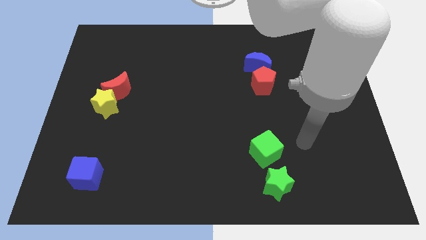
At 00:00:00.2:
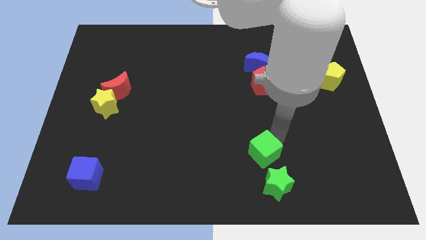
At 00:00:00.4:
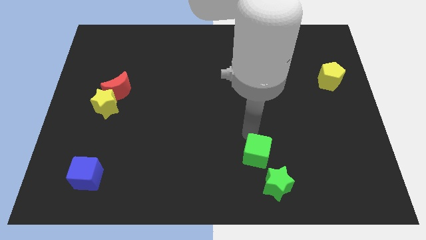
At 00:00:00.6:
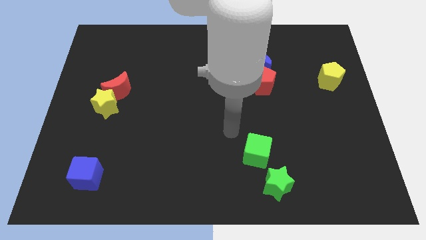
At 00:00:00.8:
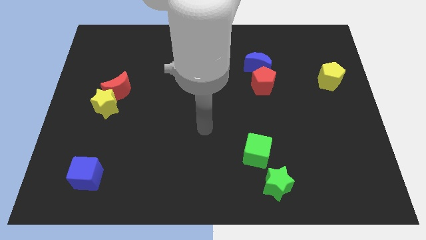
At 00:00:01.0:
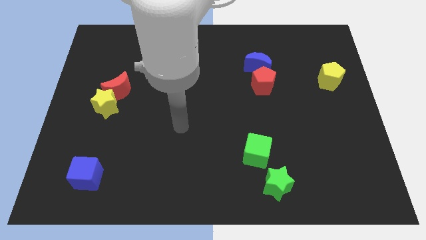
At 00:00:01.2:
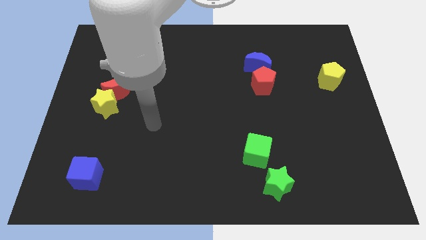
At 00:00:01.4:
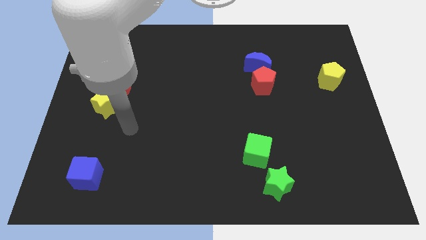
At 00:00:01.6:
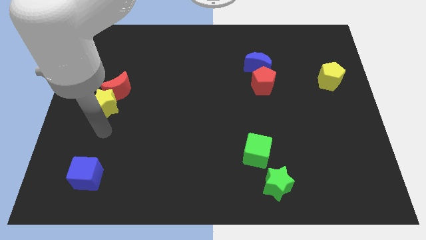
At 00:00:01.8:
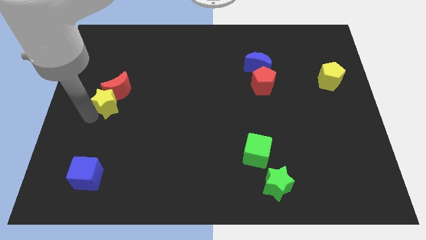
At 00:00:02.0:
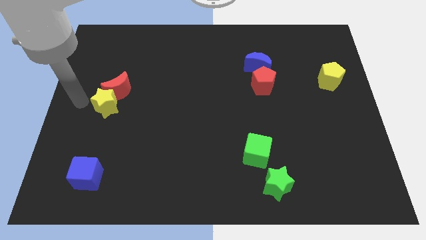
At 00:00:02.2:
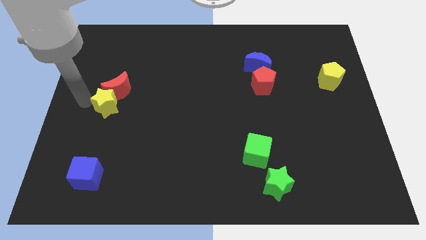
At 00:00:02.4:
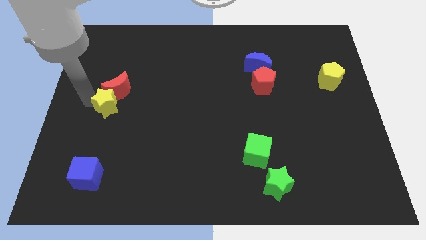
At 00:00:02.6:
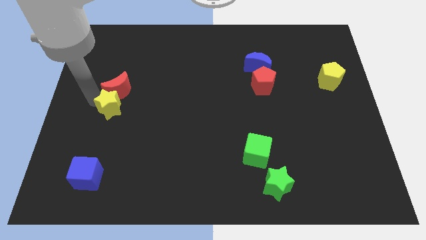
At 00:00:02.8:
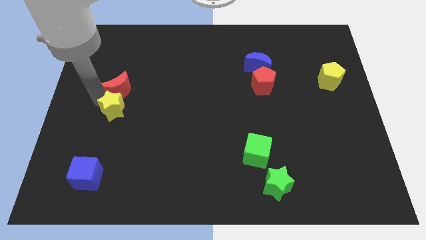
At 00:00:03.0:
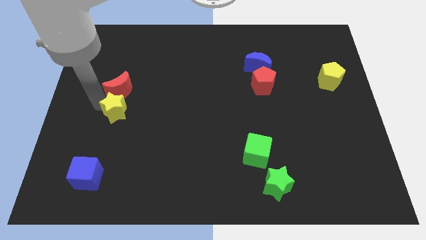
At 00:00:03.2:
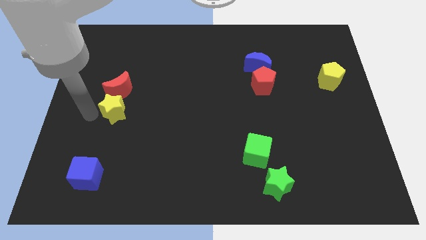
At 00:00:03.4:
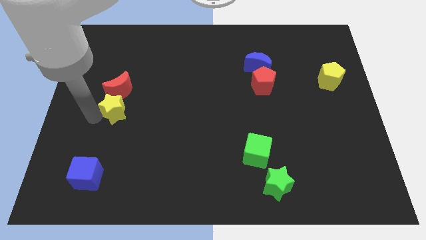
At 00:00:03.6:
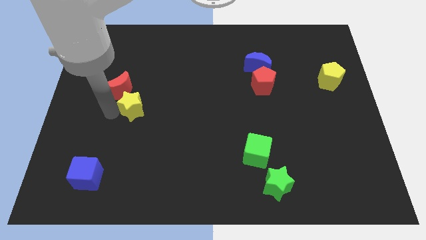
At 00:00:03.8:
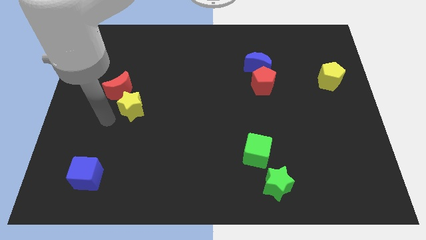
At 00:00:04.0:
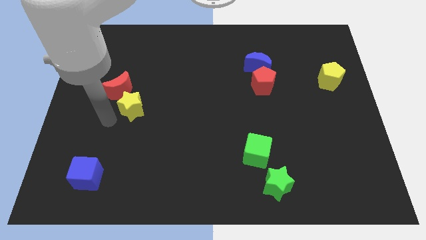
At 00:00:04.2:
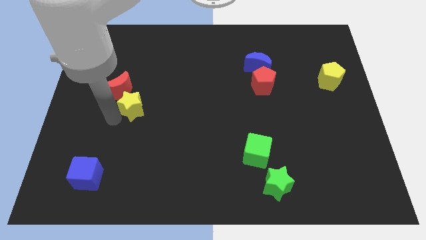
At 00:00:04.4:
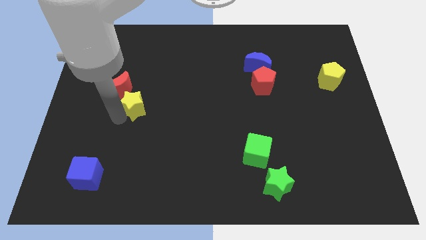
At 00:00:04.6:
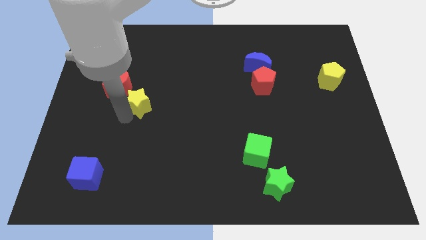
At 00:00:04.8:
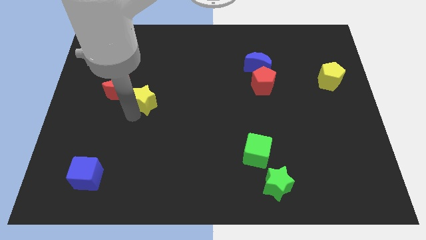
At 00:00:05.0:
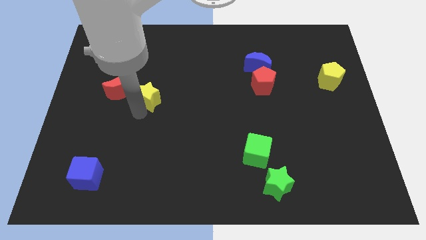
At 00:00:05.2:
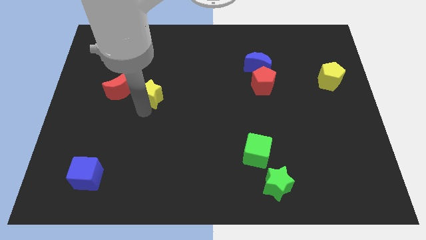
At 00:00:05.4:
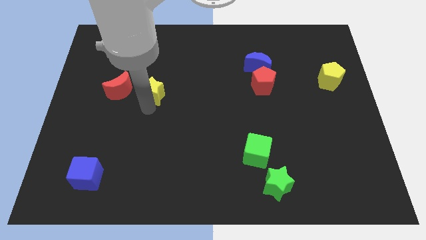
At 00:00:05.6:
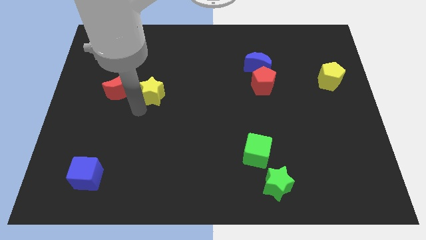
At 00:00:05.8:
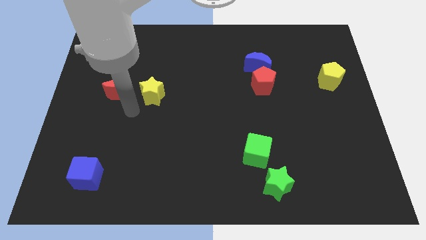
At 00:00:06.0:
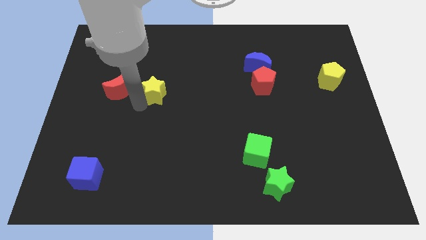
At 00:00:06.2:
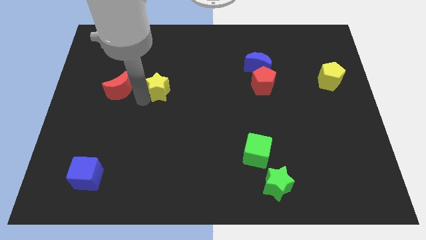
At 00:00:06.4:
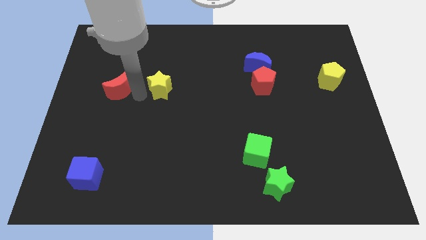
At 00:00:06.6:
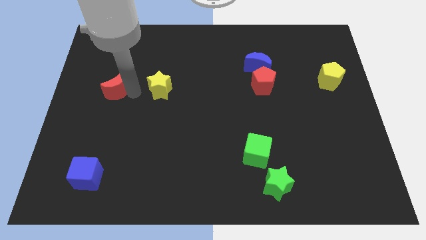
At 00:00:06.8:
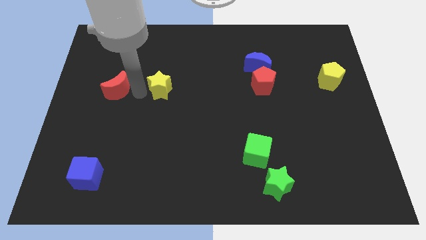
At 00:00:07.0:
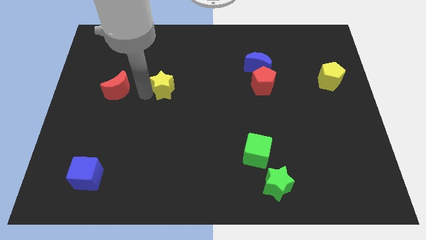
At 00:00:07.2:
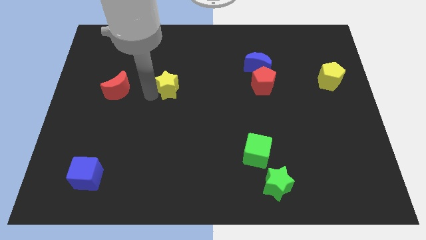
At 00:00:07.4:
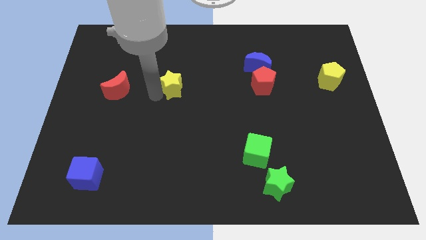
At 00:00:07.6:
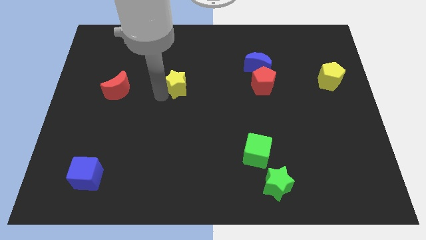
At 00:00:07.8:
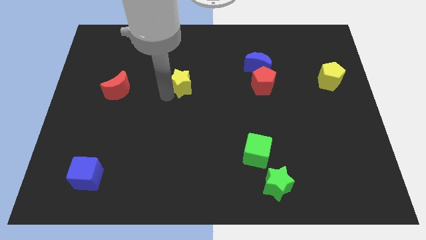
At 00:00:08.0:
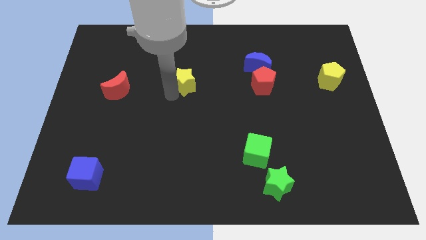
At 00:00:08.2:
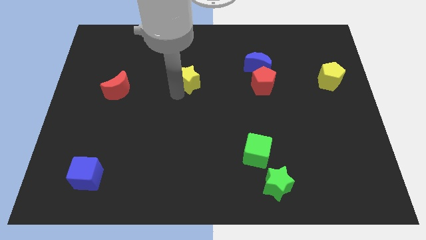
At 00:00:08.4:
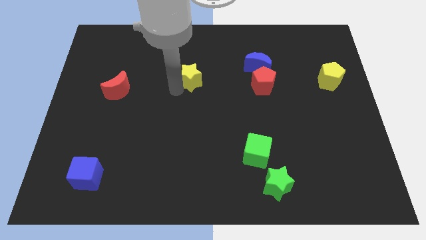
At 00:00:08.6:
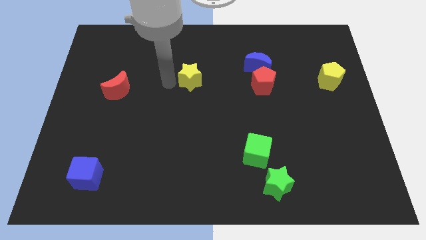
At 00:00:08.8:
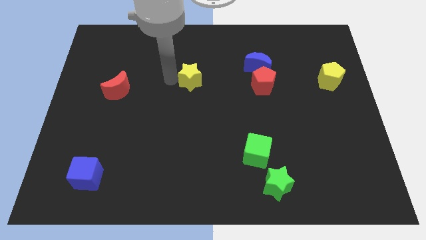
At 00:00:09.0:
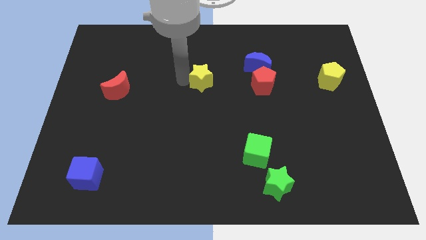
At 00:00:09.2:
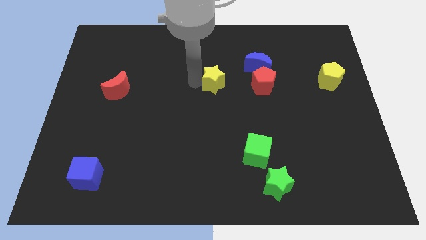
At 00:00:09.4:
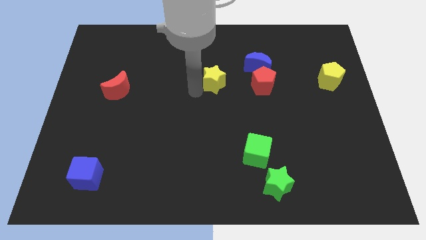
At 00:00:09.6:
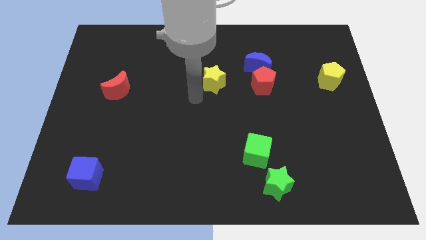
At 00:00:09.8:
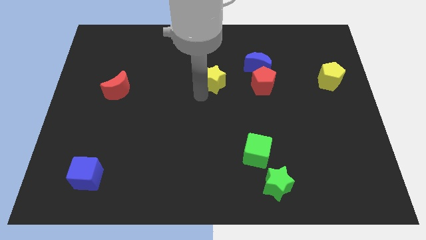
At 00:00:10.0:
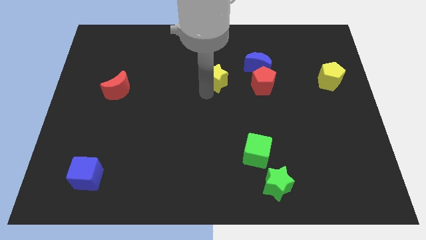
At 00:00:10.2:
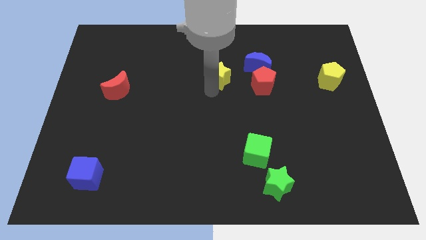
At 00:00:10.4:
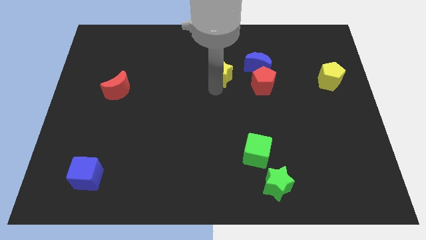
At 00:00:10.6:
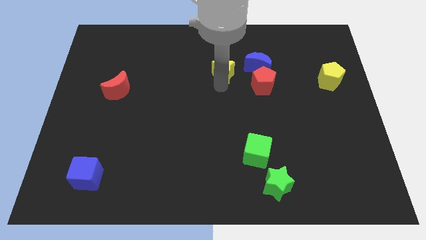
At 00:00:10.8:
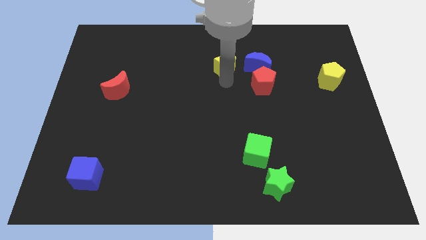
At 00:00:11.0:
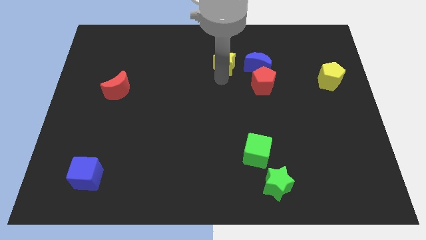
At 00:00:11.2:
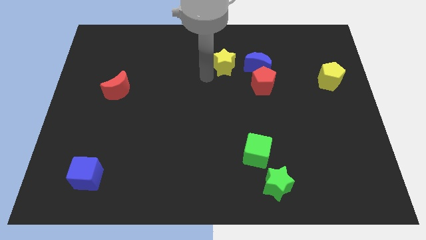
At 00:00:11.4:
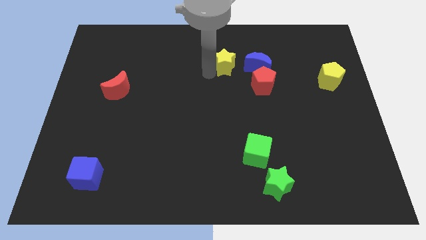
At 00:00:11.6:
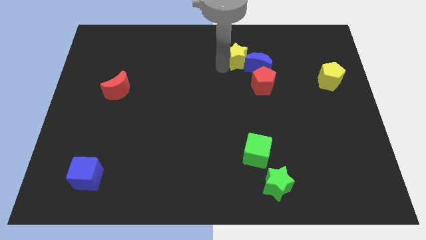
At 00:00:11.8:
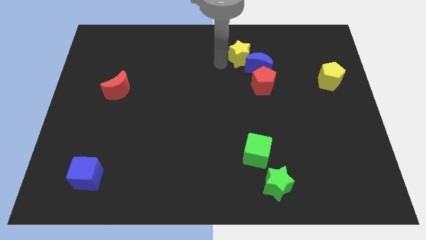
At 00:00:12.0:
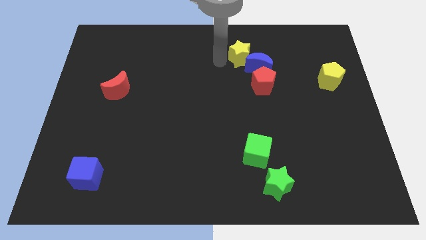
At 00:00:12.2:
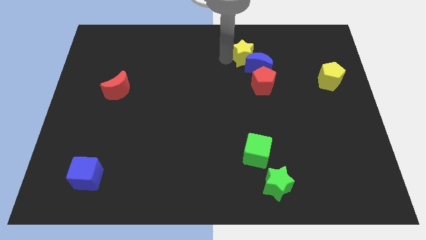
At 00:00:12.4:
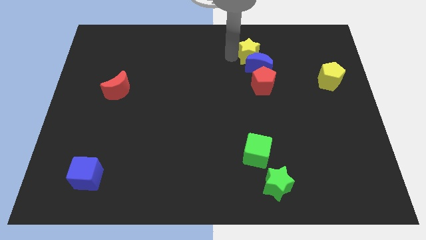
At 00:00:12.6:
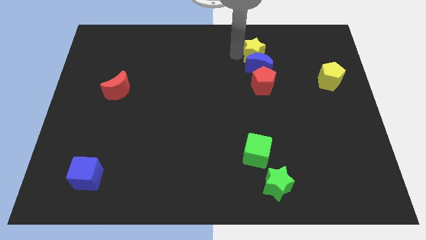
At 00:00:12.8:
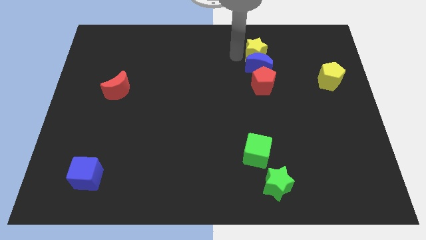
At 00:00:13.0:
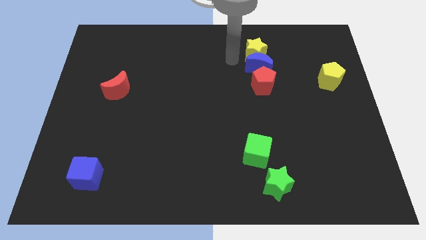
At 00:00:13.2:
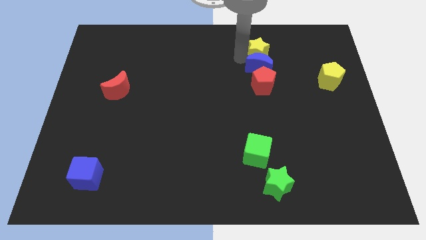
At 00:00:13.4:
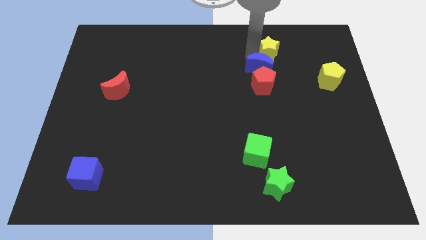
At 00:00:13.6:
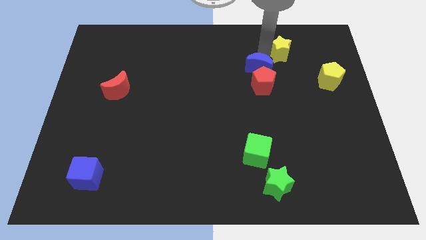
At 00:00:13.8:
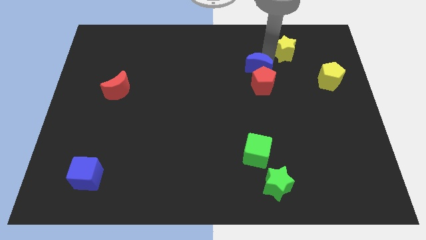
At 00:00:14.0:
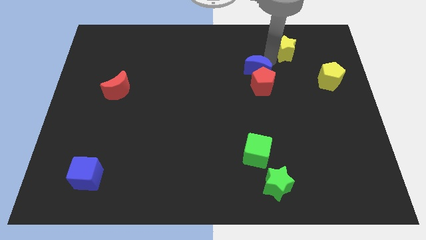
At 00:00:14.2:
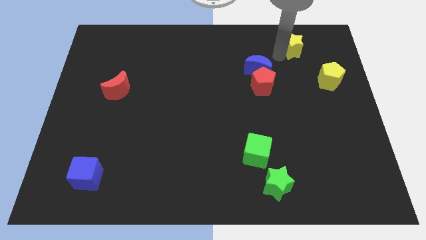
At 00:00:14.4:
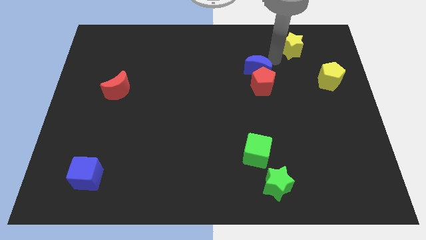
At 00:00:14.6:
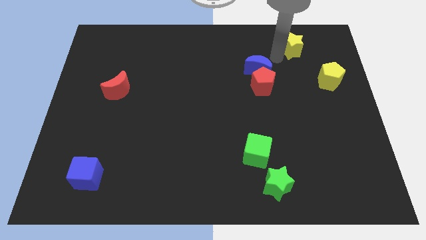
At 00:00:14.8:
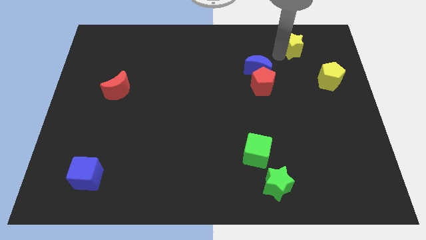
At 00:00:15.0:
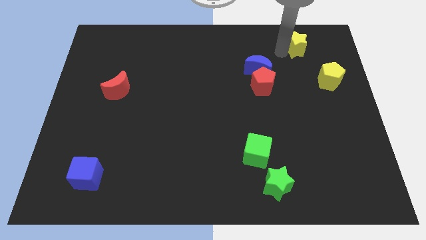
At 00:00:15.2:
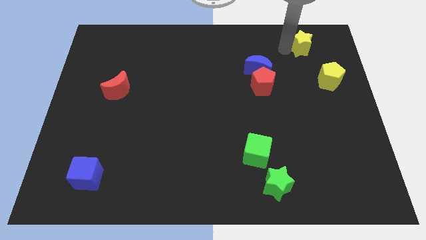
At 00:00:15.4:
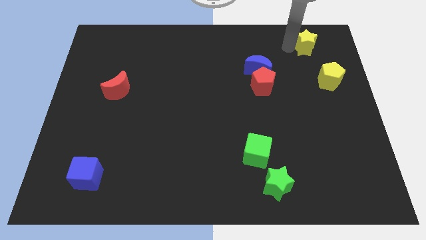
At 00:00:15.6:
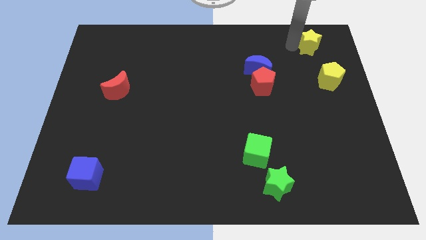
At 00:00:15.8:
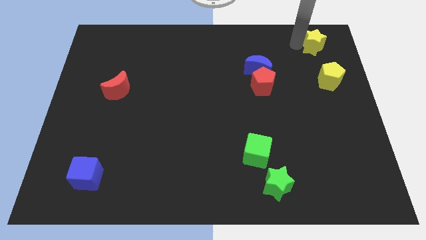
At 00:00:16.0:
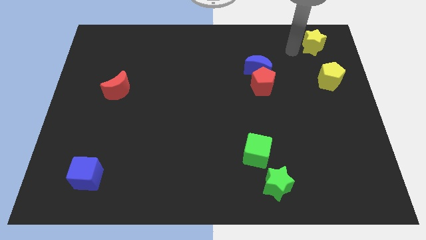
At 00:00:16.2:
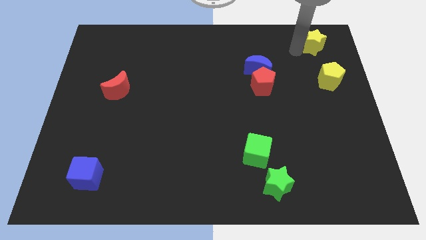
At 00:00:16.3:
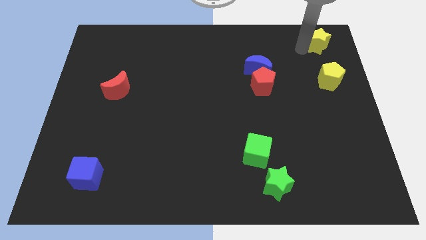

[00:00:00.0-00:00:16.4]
slide the yellow star to the top right
